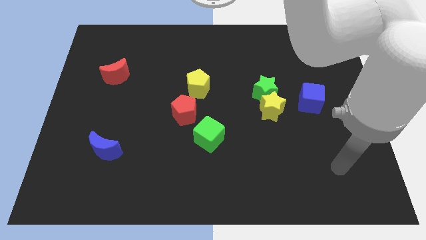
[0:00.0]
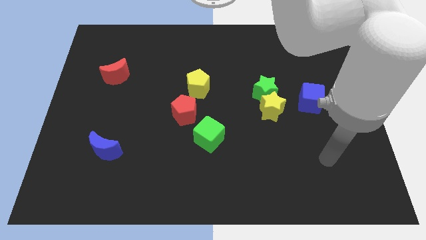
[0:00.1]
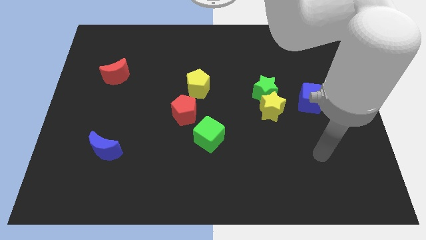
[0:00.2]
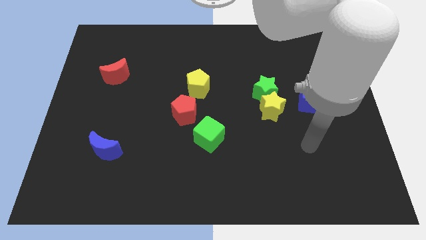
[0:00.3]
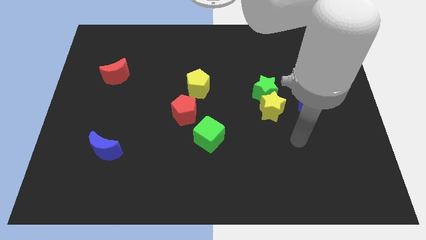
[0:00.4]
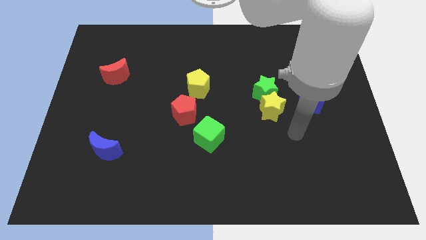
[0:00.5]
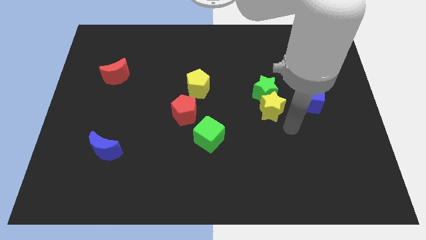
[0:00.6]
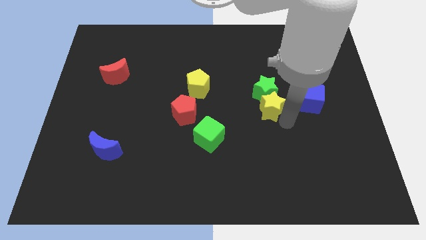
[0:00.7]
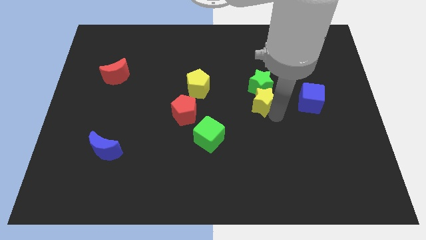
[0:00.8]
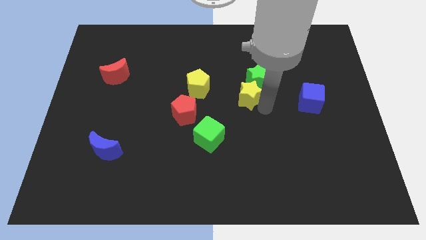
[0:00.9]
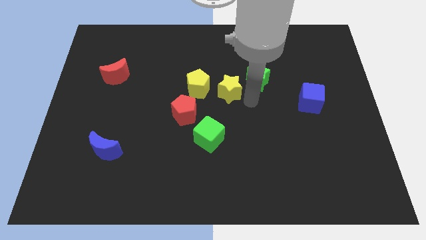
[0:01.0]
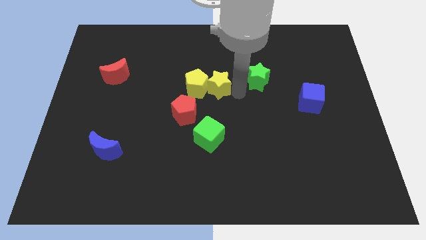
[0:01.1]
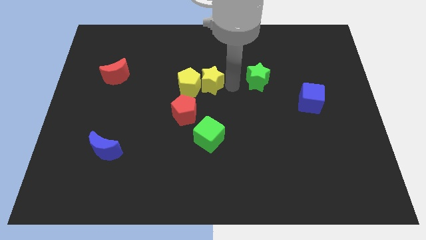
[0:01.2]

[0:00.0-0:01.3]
separate the green star from the yellow star

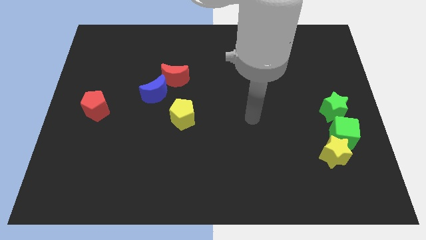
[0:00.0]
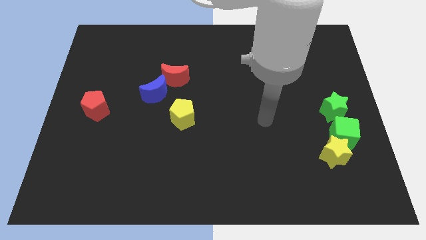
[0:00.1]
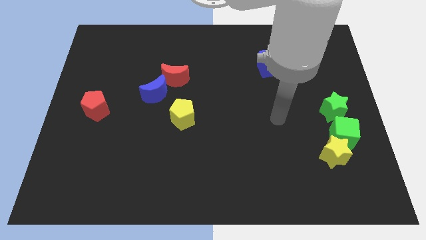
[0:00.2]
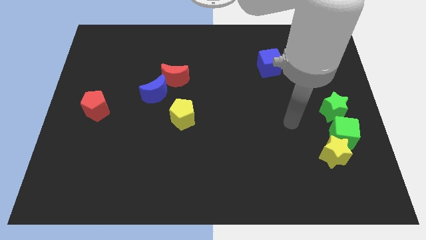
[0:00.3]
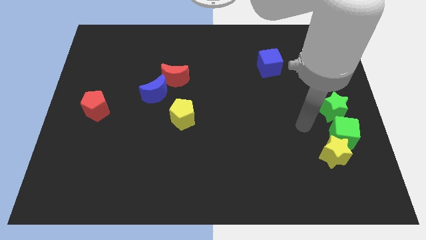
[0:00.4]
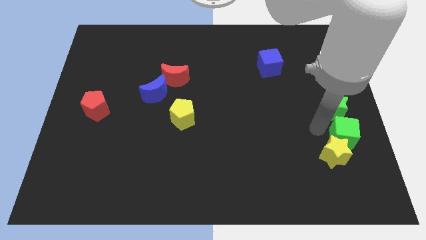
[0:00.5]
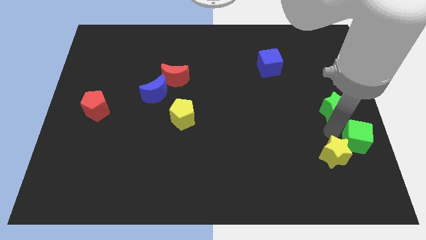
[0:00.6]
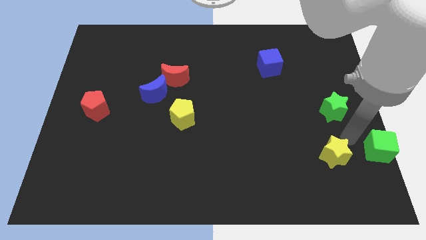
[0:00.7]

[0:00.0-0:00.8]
separate the yellow star from the green cube

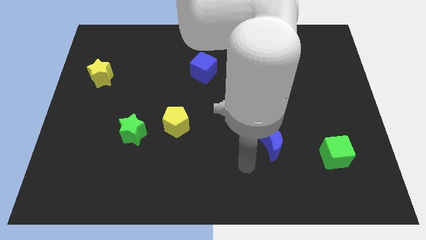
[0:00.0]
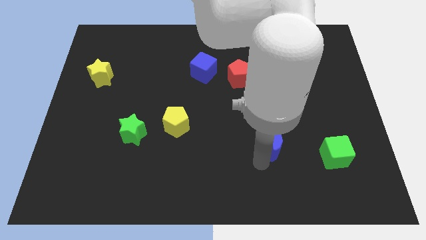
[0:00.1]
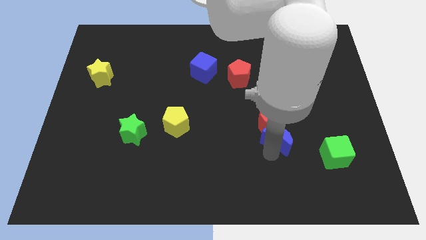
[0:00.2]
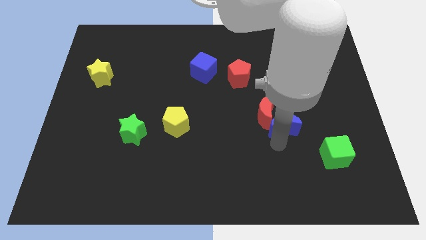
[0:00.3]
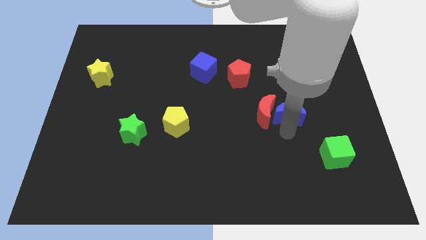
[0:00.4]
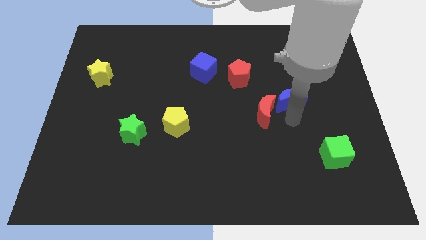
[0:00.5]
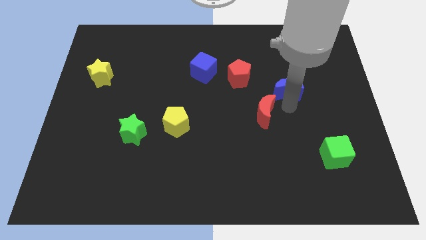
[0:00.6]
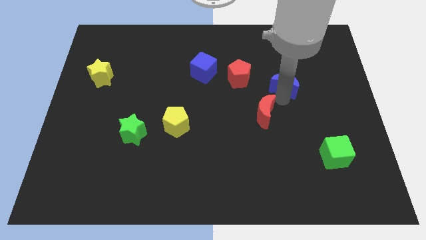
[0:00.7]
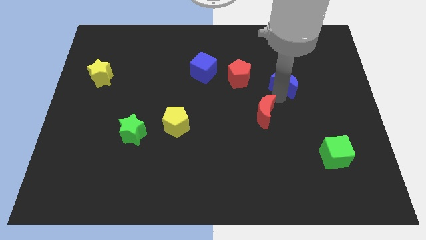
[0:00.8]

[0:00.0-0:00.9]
pull the red moon apart from the blue moon

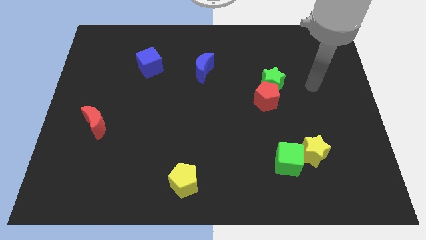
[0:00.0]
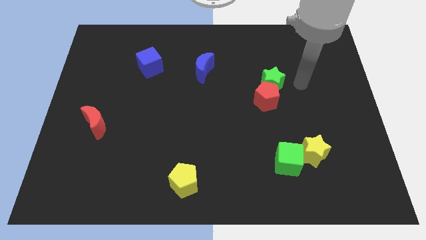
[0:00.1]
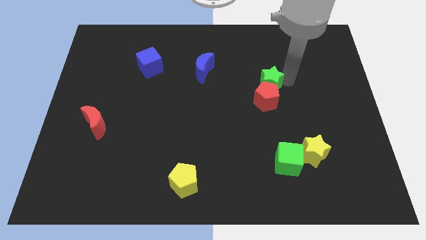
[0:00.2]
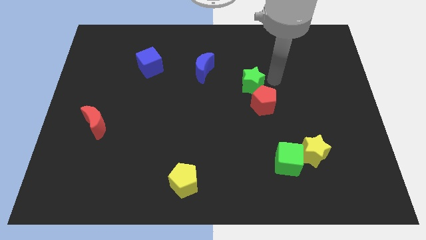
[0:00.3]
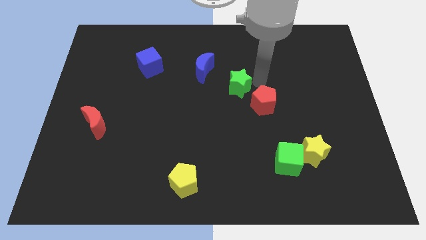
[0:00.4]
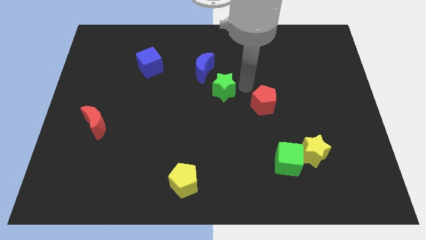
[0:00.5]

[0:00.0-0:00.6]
pull the red pentagon apart from the green star

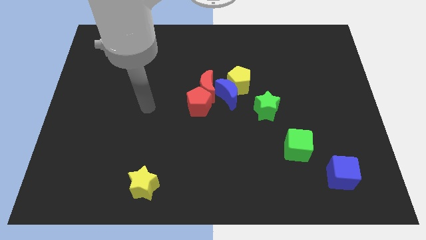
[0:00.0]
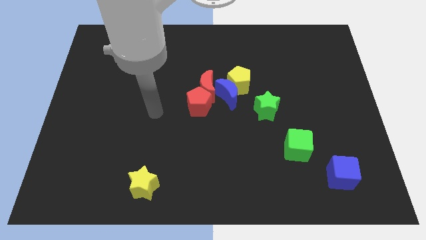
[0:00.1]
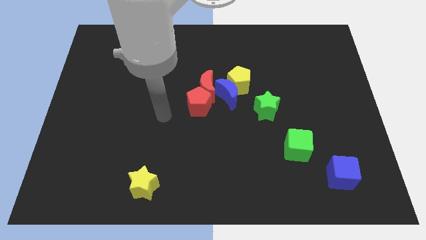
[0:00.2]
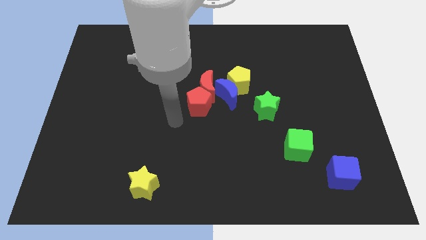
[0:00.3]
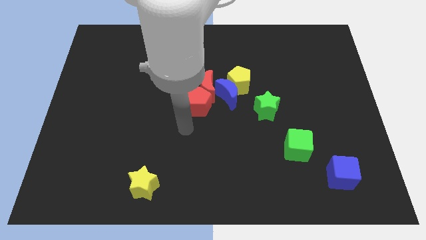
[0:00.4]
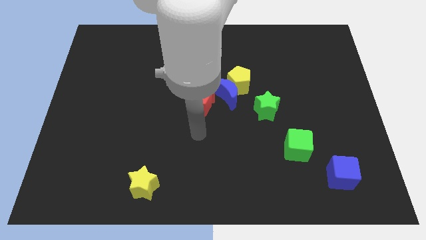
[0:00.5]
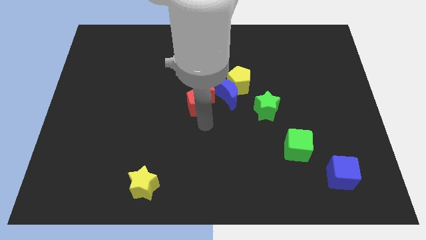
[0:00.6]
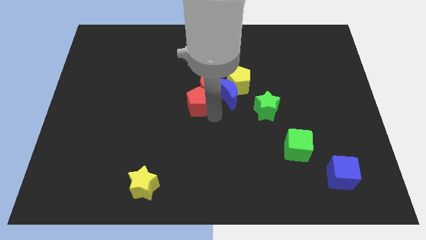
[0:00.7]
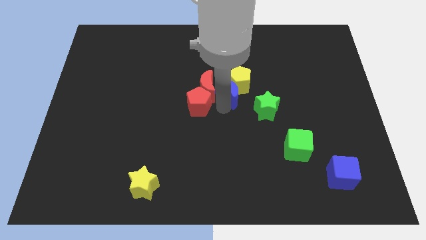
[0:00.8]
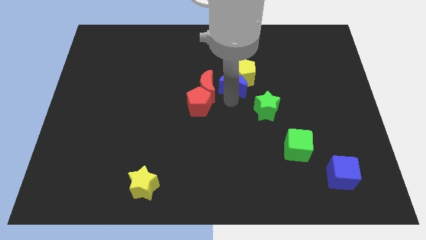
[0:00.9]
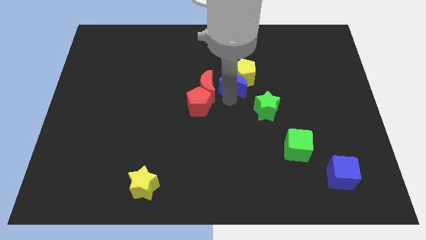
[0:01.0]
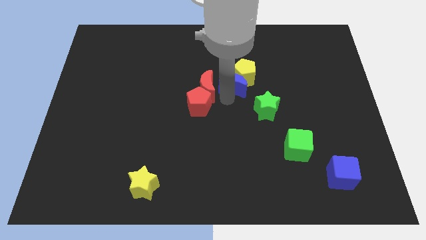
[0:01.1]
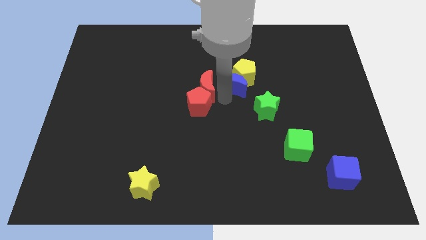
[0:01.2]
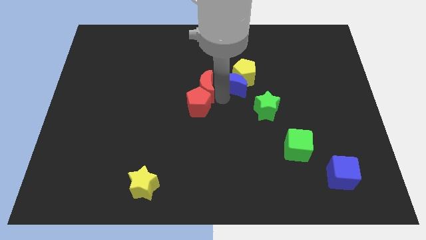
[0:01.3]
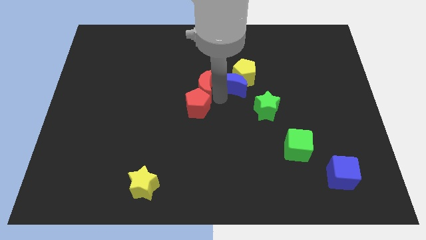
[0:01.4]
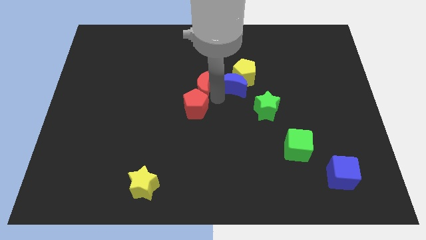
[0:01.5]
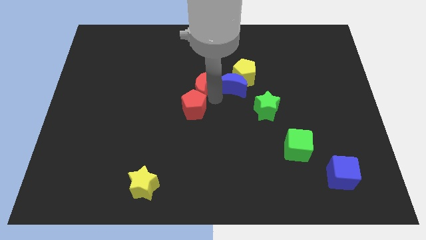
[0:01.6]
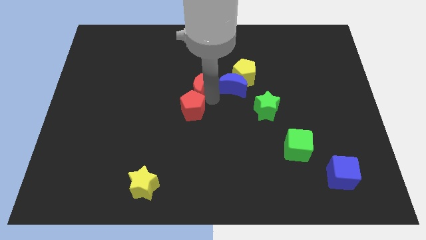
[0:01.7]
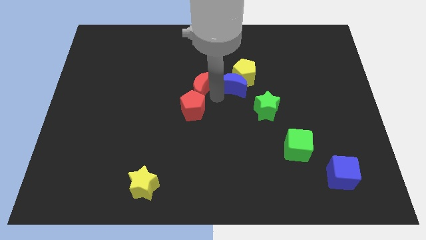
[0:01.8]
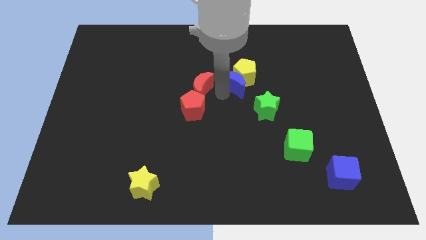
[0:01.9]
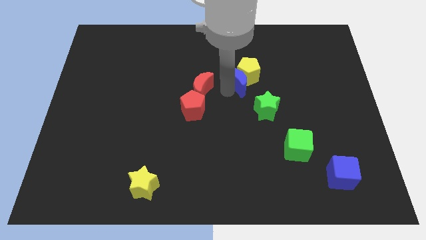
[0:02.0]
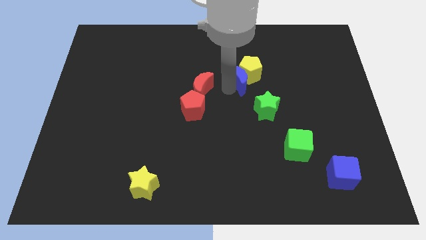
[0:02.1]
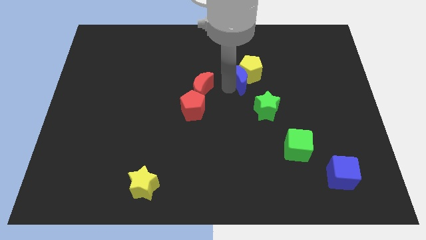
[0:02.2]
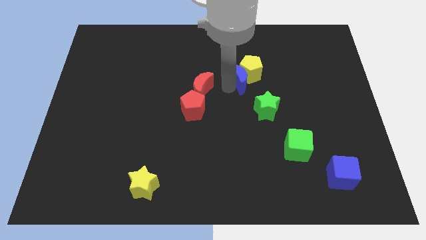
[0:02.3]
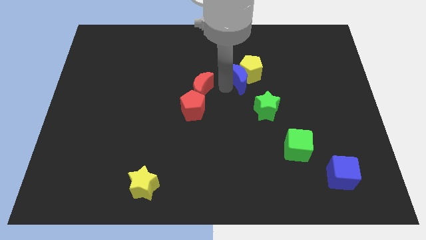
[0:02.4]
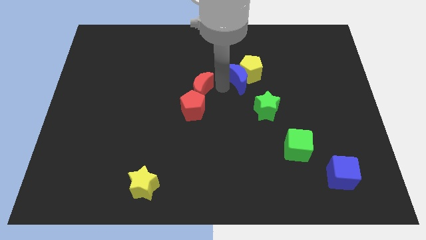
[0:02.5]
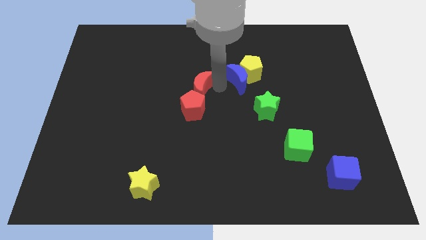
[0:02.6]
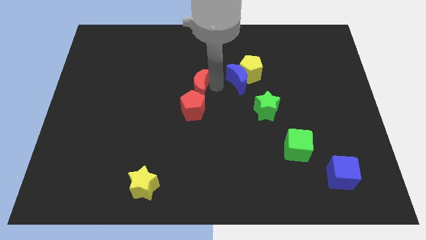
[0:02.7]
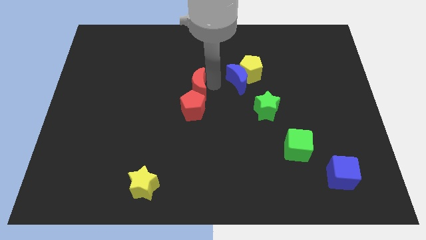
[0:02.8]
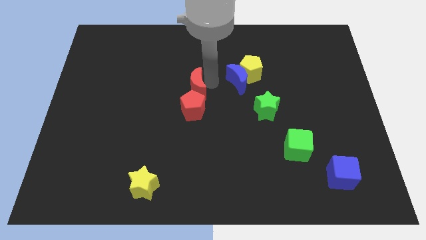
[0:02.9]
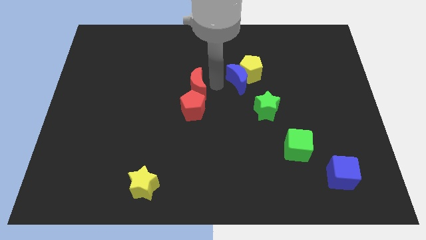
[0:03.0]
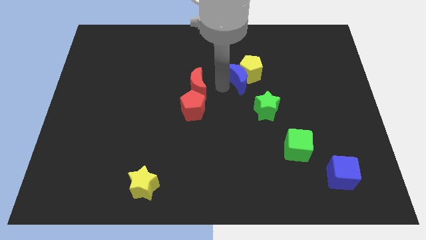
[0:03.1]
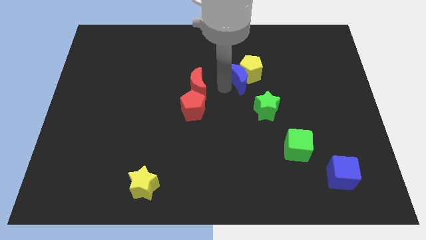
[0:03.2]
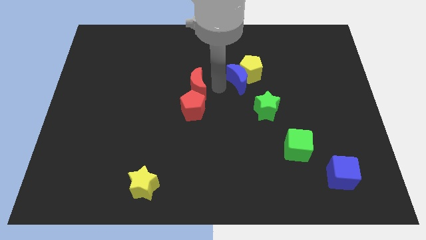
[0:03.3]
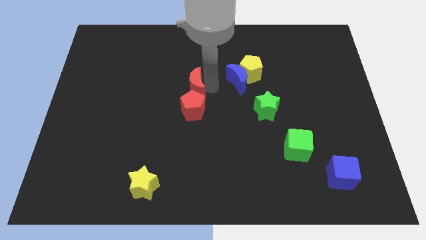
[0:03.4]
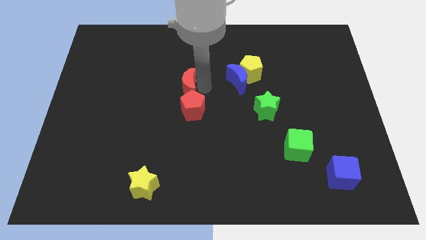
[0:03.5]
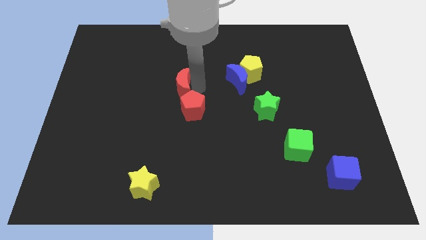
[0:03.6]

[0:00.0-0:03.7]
pull the red moon apart from the red pentagon, blue moon, and yellow pentagon

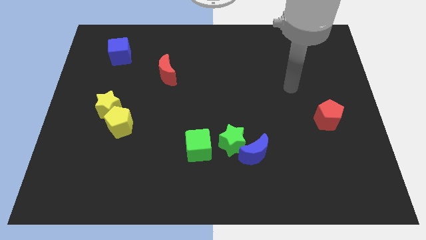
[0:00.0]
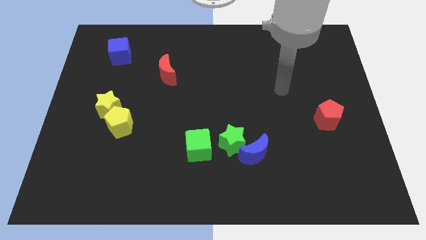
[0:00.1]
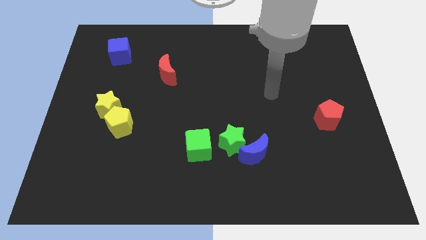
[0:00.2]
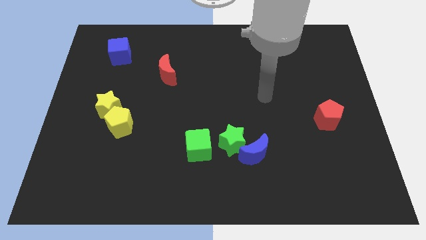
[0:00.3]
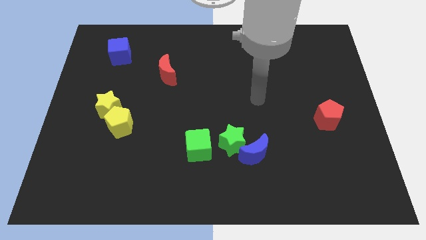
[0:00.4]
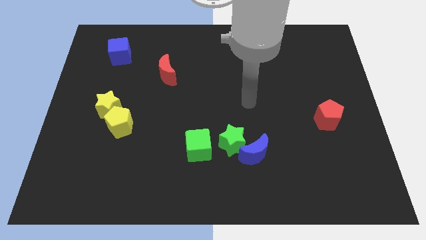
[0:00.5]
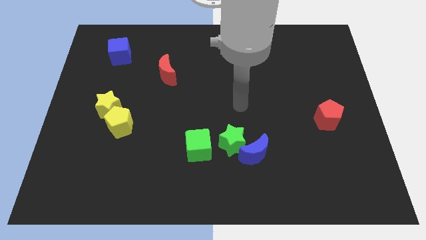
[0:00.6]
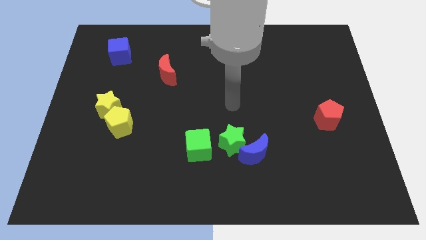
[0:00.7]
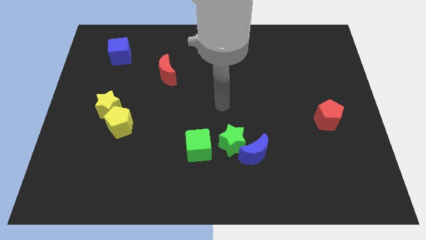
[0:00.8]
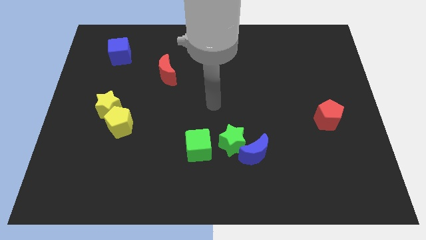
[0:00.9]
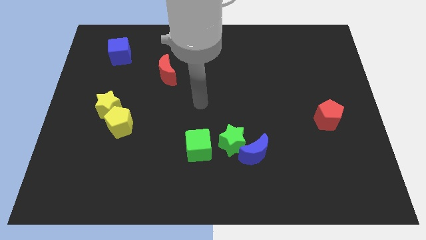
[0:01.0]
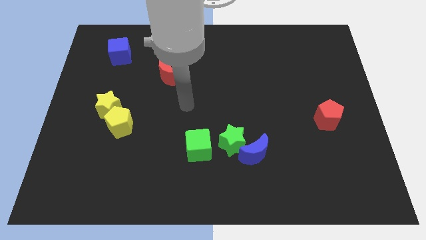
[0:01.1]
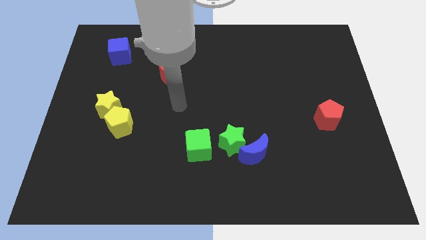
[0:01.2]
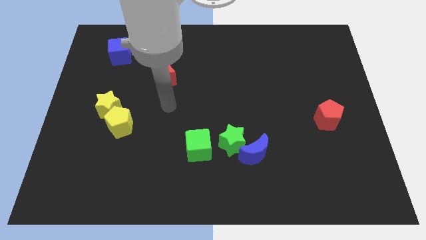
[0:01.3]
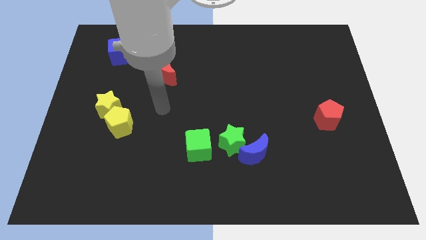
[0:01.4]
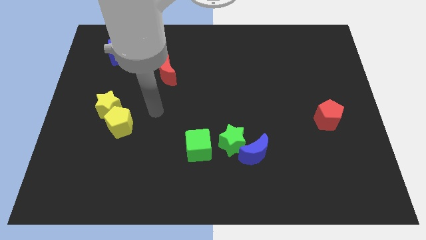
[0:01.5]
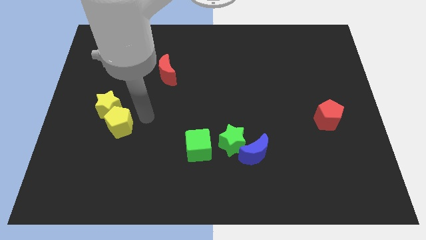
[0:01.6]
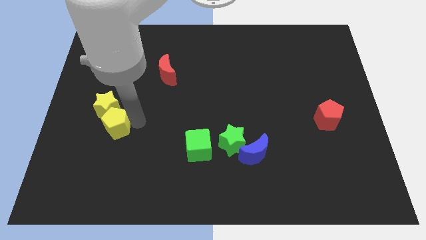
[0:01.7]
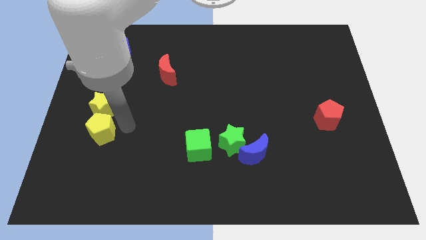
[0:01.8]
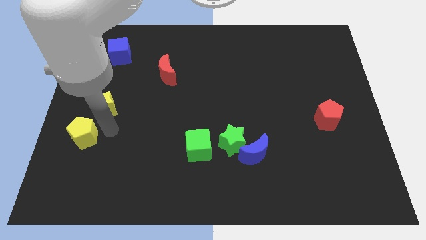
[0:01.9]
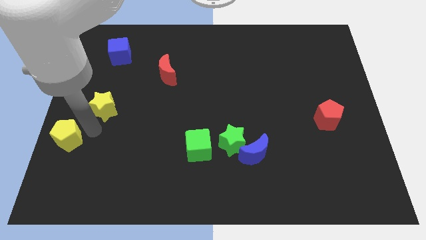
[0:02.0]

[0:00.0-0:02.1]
pull the yellow star apart from the yellow pentagon
